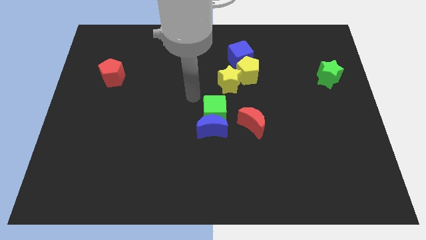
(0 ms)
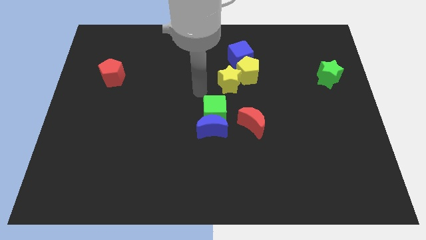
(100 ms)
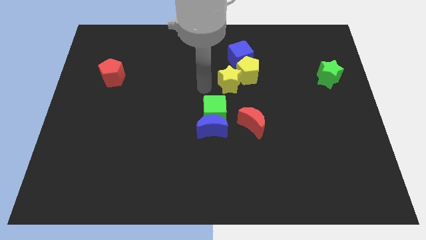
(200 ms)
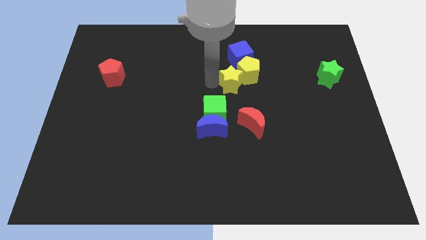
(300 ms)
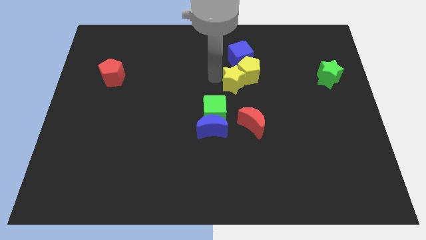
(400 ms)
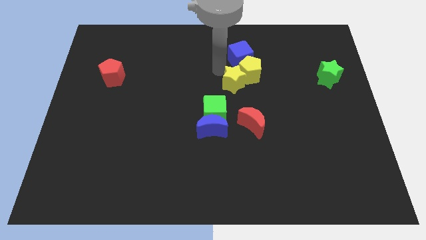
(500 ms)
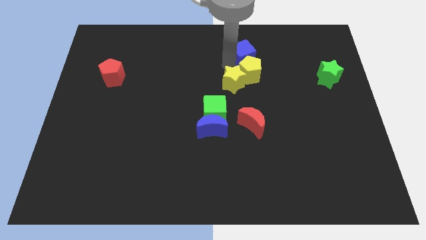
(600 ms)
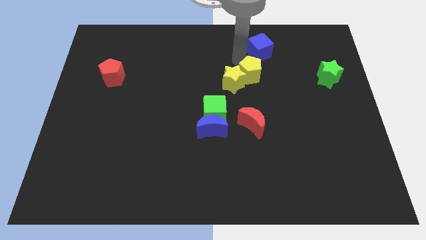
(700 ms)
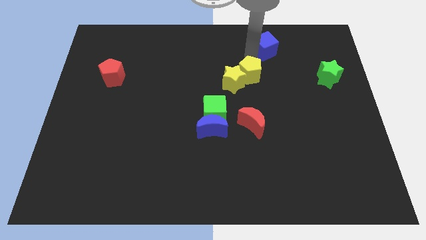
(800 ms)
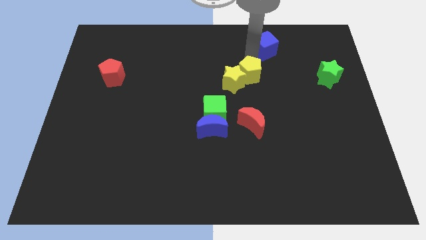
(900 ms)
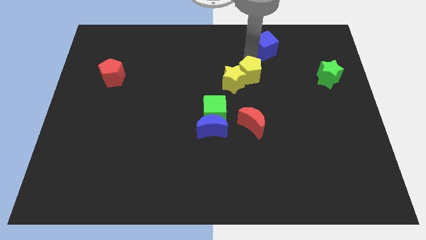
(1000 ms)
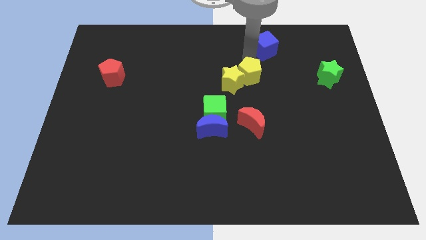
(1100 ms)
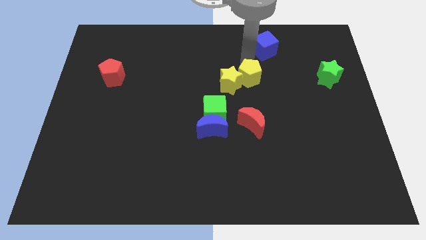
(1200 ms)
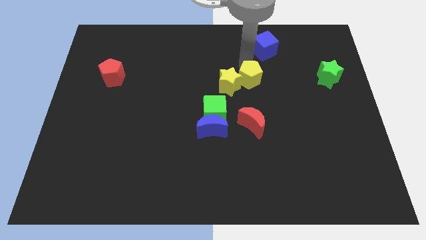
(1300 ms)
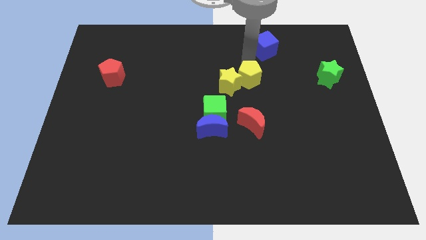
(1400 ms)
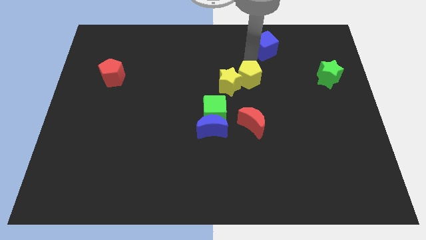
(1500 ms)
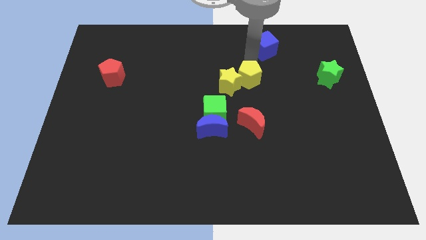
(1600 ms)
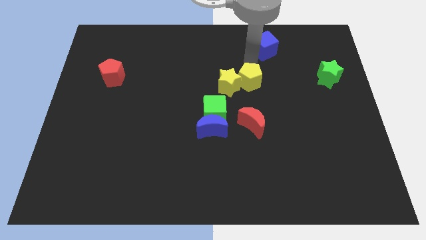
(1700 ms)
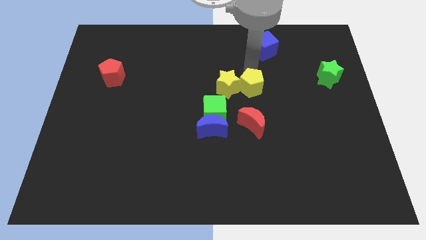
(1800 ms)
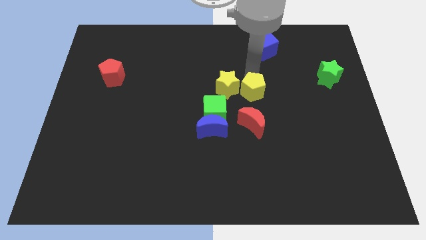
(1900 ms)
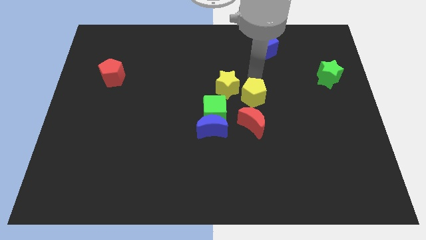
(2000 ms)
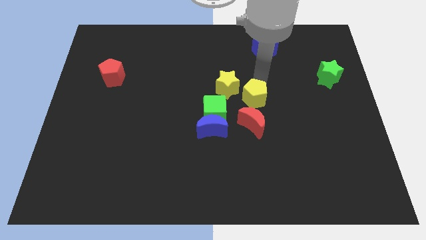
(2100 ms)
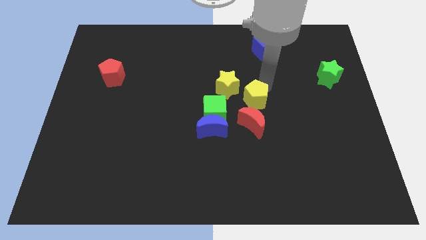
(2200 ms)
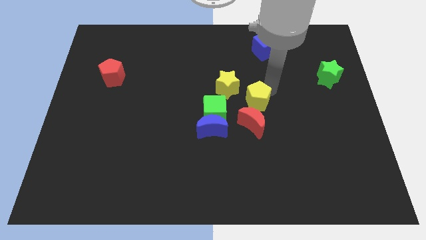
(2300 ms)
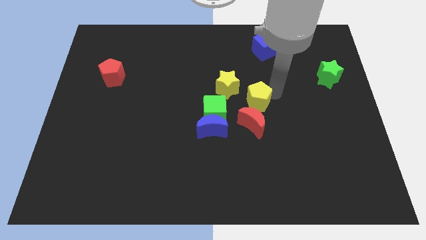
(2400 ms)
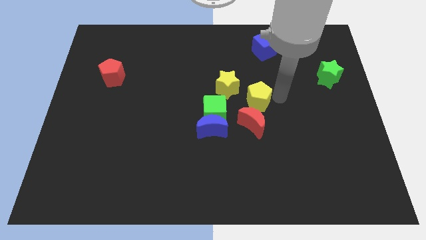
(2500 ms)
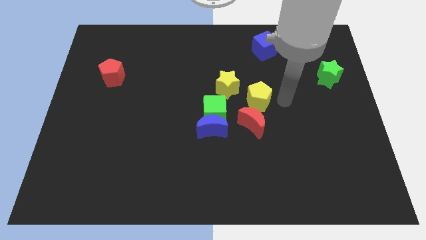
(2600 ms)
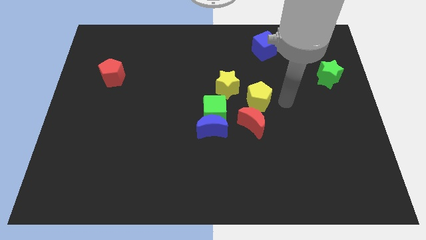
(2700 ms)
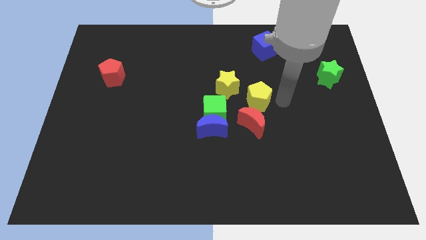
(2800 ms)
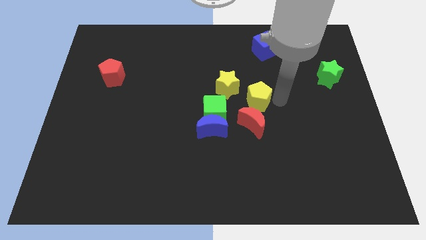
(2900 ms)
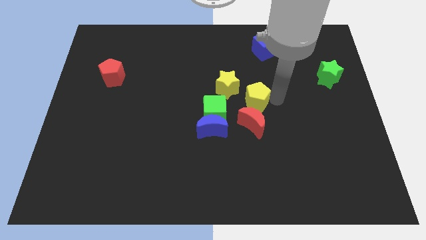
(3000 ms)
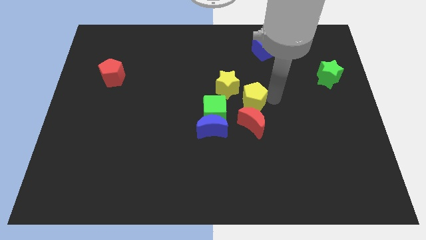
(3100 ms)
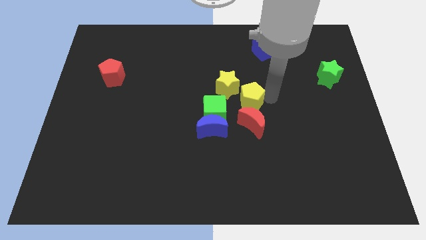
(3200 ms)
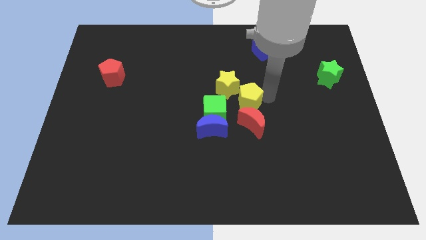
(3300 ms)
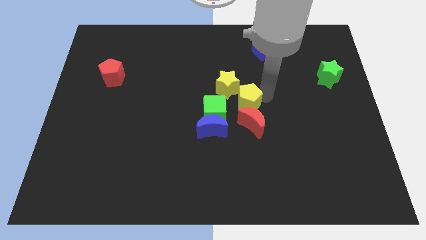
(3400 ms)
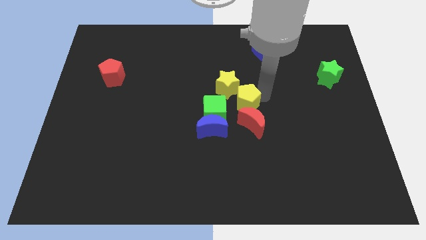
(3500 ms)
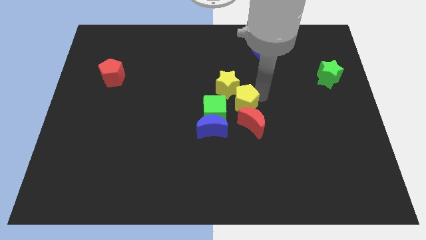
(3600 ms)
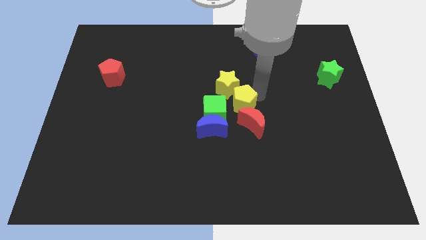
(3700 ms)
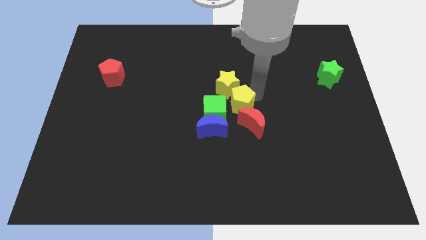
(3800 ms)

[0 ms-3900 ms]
slightly slide the yellow pentagon downwards and to the left diagonally

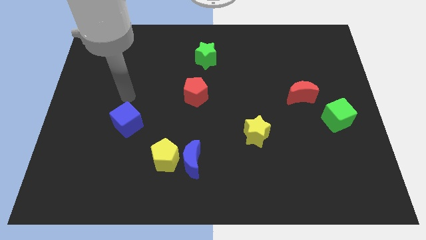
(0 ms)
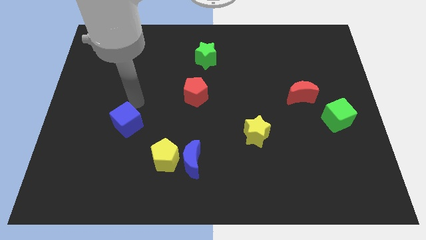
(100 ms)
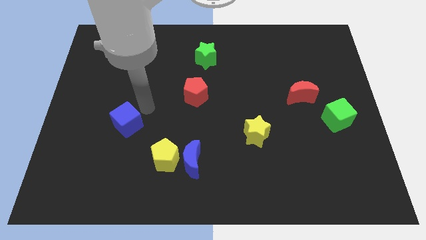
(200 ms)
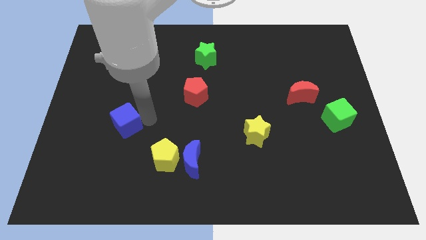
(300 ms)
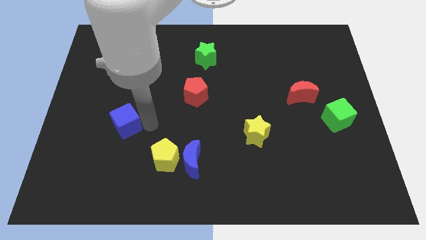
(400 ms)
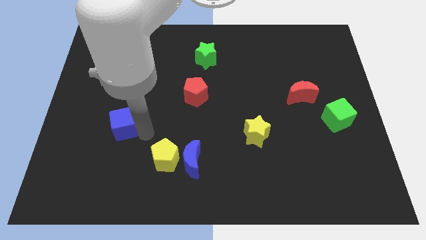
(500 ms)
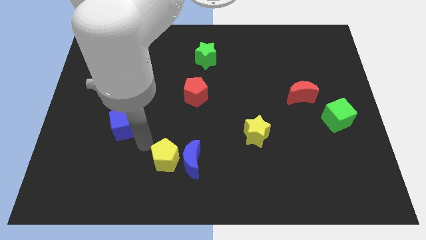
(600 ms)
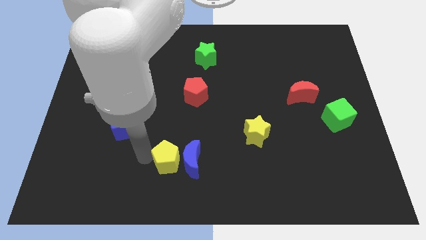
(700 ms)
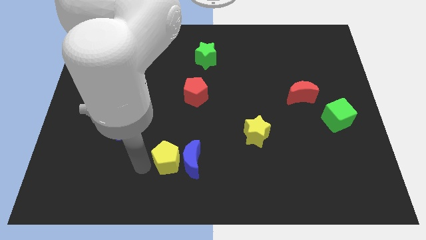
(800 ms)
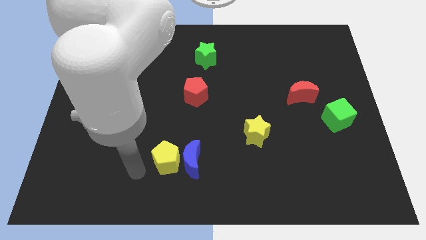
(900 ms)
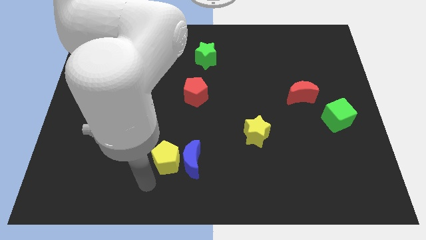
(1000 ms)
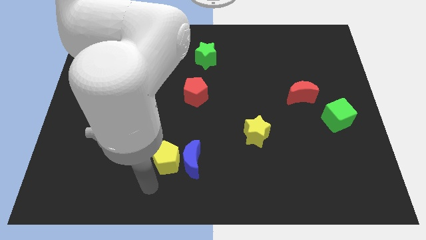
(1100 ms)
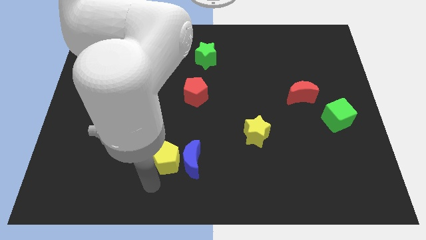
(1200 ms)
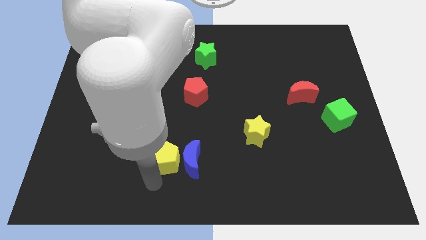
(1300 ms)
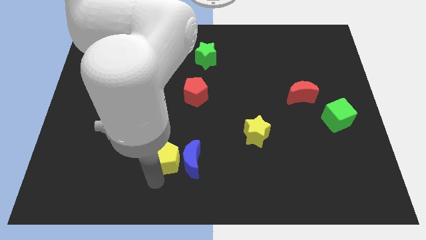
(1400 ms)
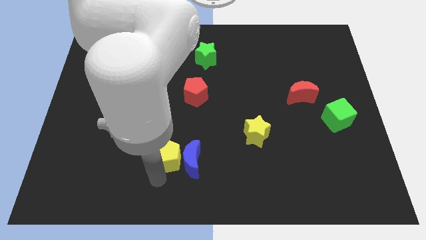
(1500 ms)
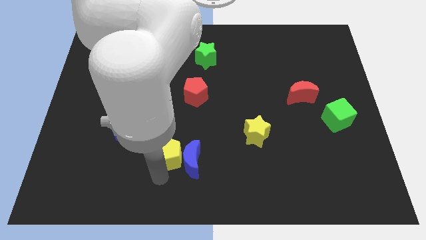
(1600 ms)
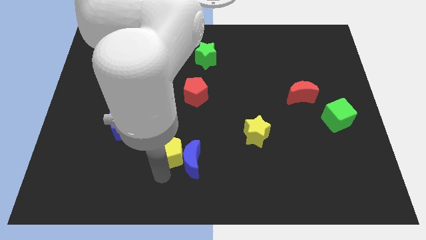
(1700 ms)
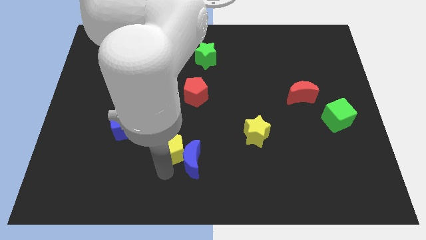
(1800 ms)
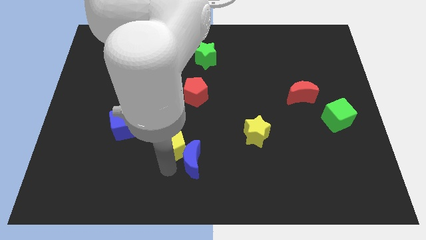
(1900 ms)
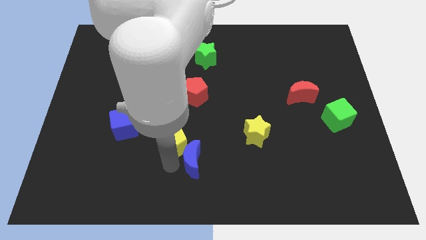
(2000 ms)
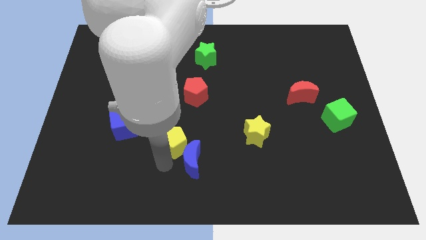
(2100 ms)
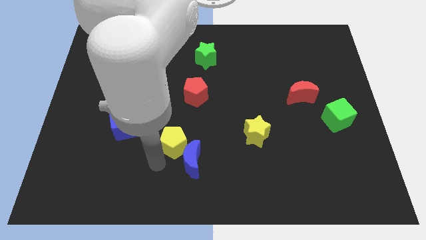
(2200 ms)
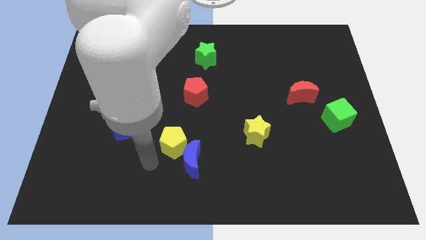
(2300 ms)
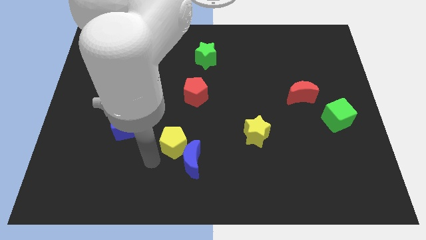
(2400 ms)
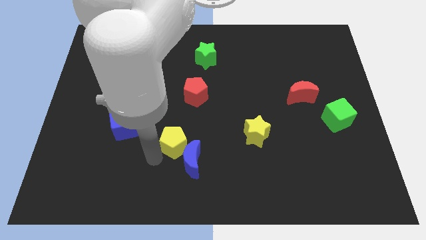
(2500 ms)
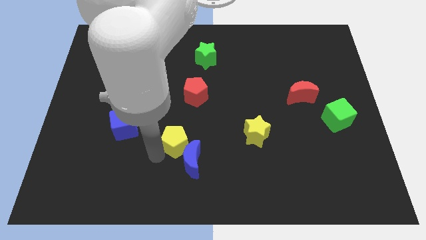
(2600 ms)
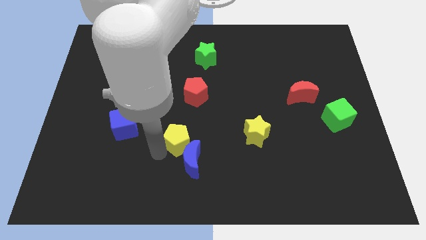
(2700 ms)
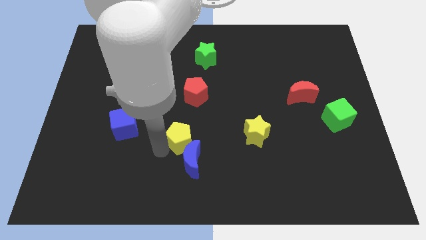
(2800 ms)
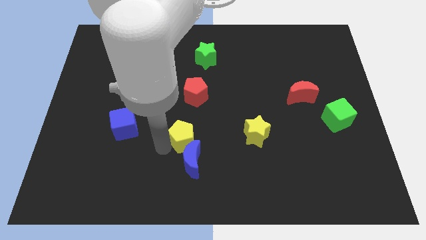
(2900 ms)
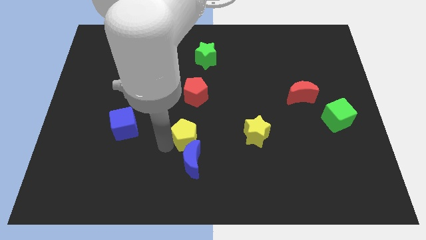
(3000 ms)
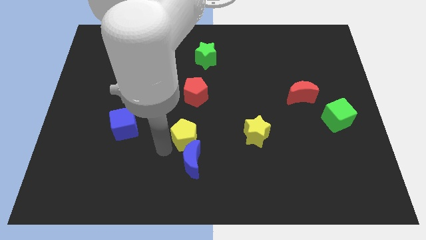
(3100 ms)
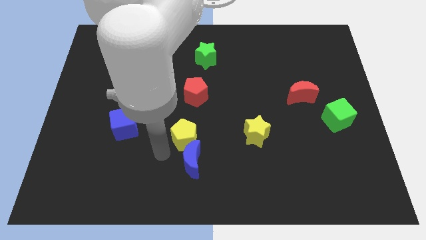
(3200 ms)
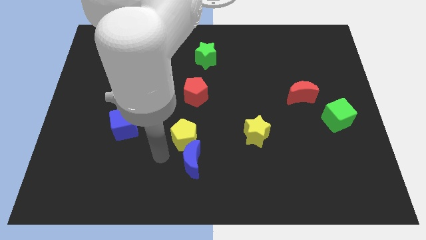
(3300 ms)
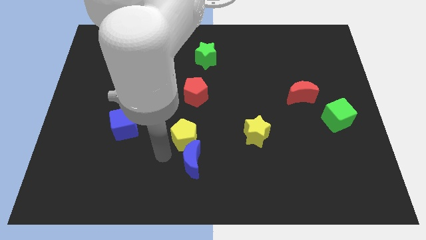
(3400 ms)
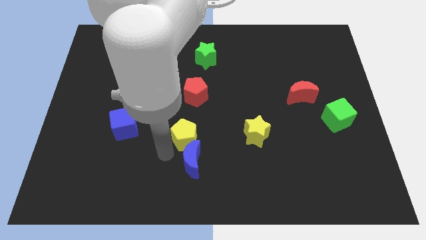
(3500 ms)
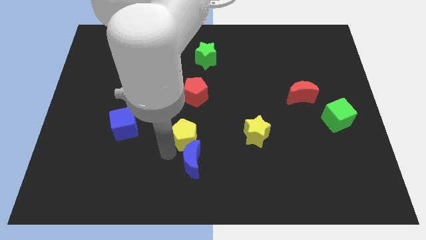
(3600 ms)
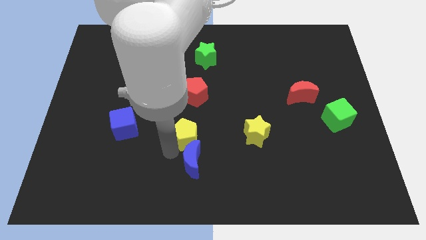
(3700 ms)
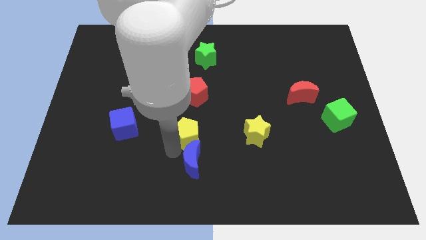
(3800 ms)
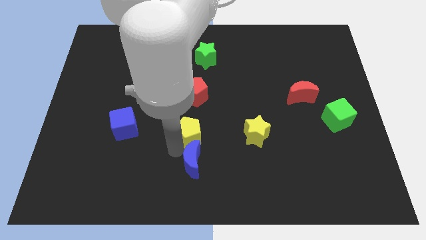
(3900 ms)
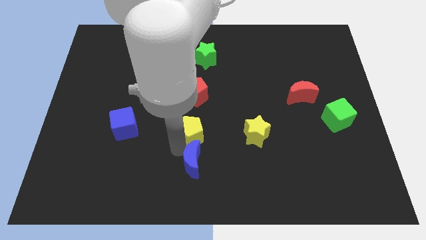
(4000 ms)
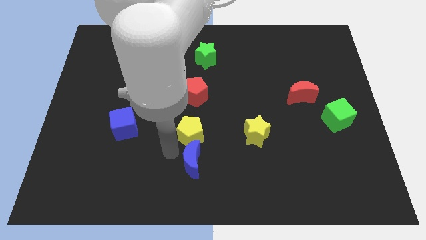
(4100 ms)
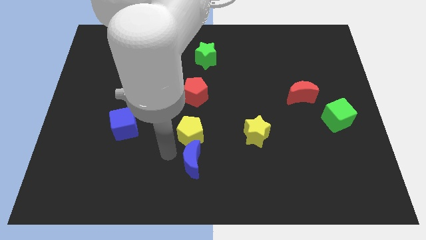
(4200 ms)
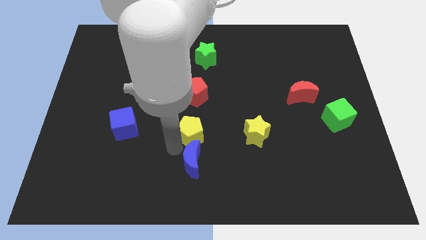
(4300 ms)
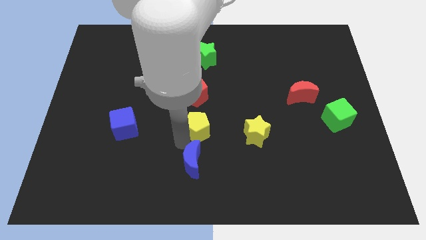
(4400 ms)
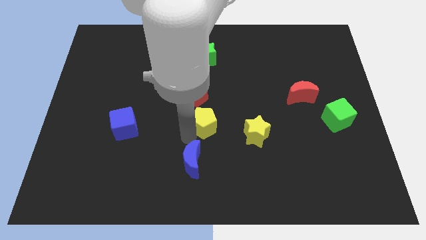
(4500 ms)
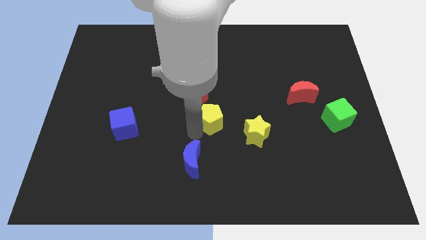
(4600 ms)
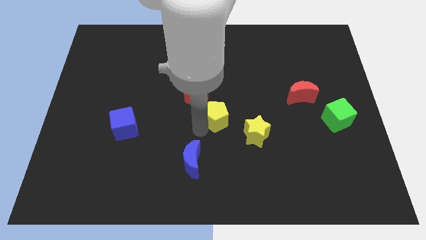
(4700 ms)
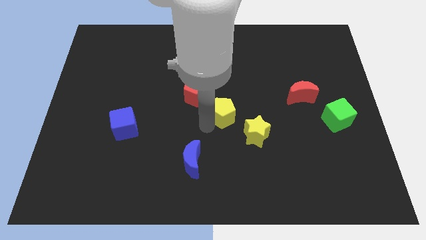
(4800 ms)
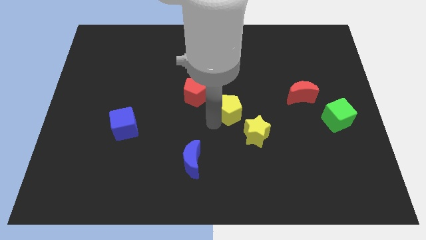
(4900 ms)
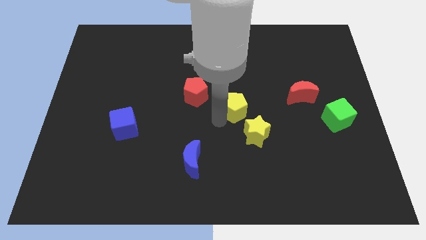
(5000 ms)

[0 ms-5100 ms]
slide the yellow pentagon upwards and right
